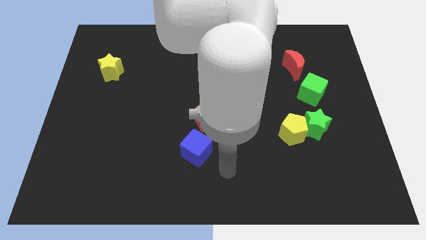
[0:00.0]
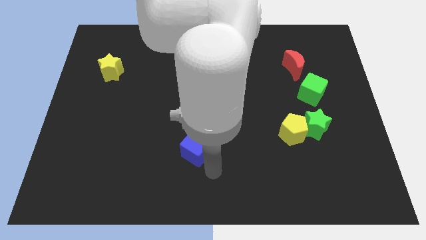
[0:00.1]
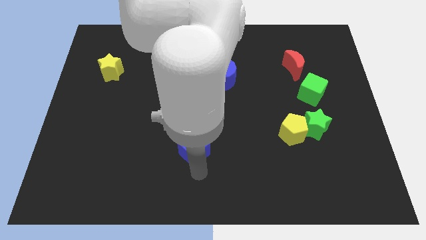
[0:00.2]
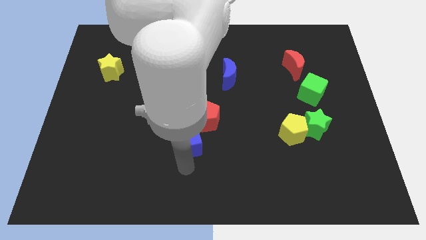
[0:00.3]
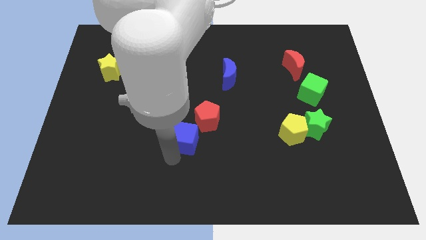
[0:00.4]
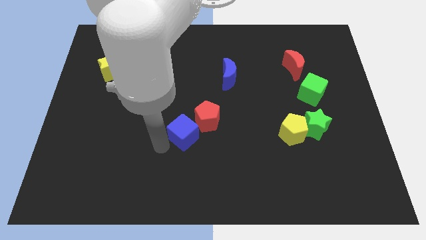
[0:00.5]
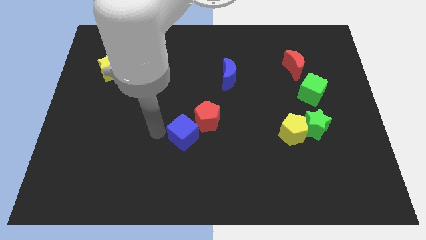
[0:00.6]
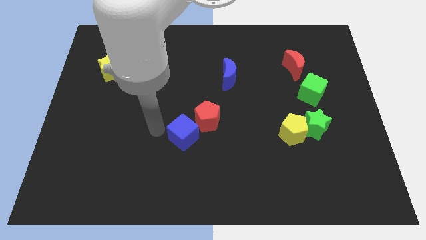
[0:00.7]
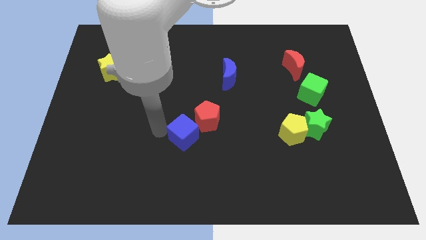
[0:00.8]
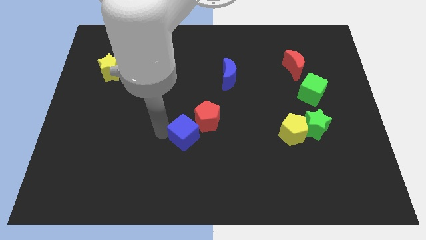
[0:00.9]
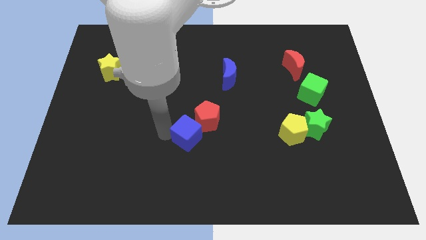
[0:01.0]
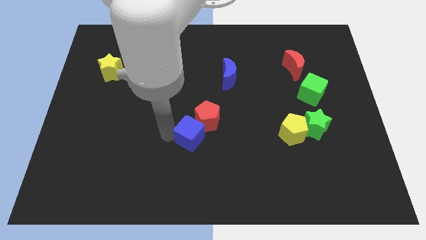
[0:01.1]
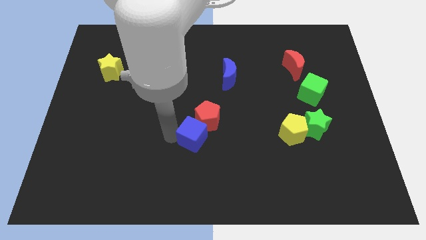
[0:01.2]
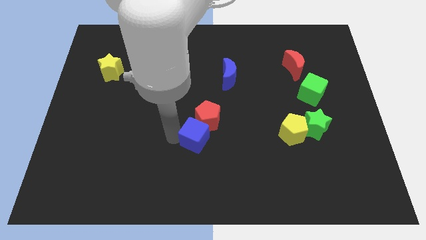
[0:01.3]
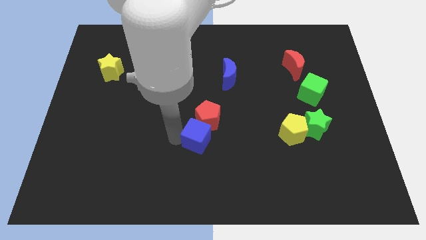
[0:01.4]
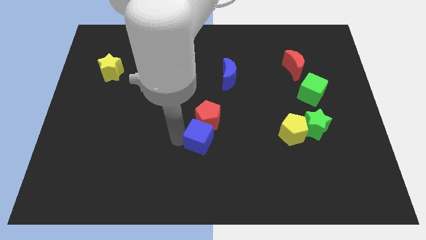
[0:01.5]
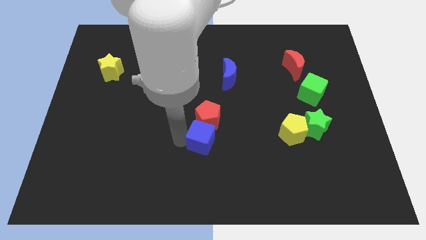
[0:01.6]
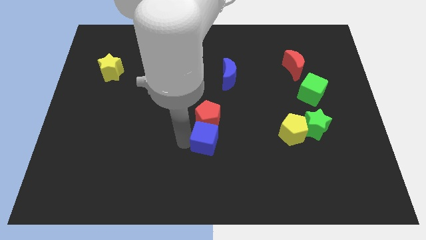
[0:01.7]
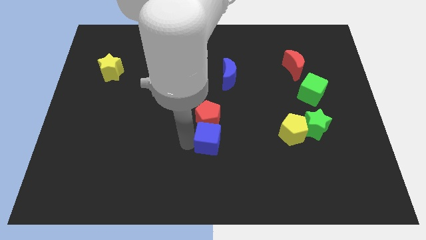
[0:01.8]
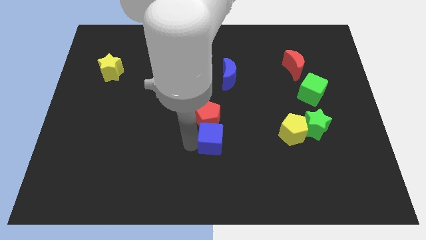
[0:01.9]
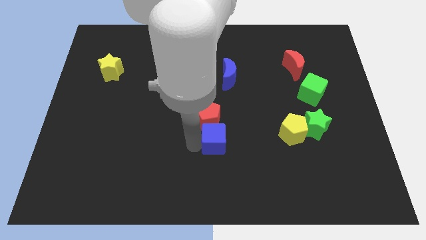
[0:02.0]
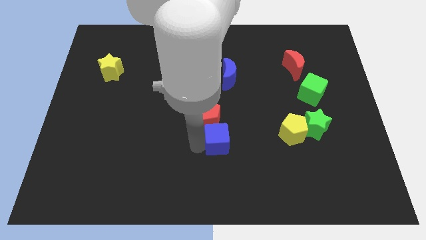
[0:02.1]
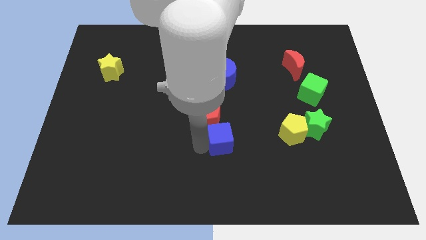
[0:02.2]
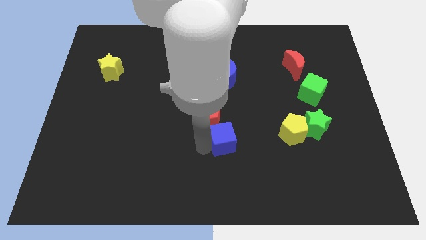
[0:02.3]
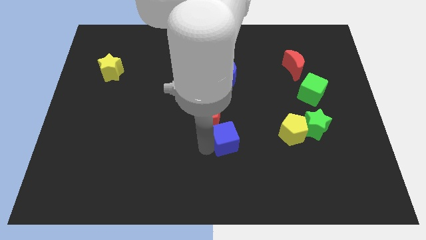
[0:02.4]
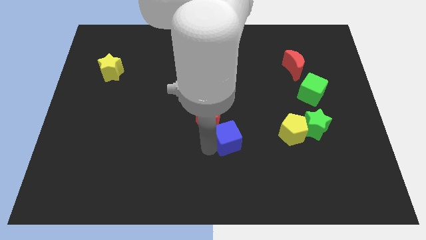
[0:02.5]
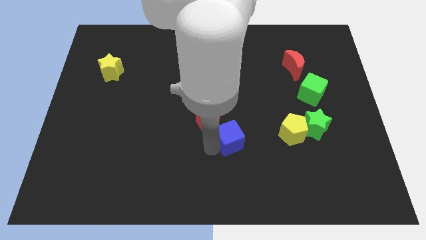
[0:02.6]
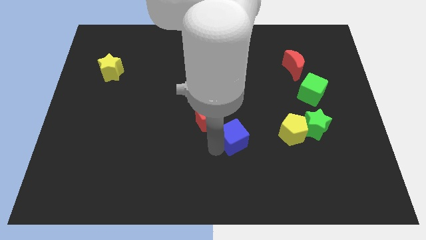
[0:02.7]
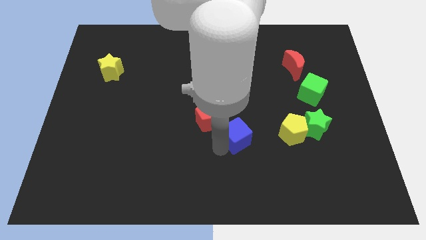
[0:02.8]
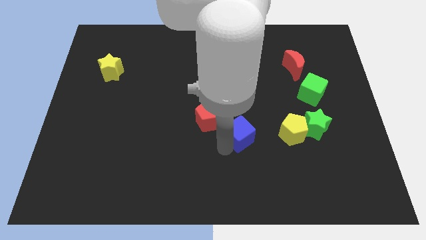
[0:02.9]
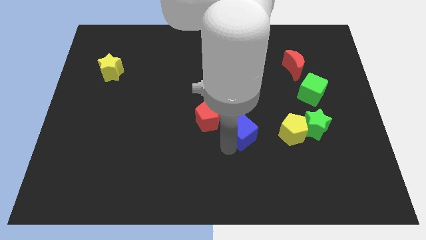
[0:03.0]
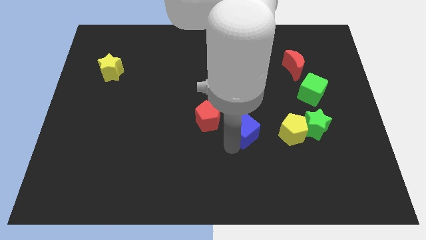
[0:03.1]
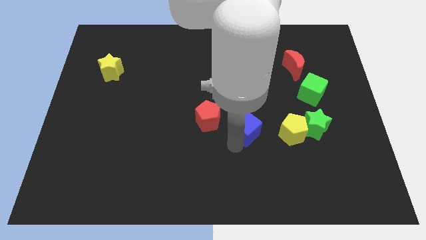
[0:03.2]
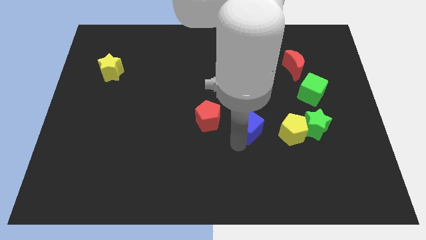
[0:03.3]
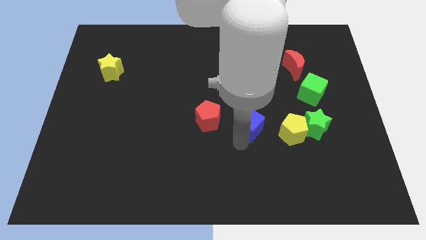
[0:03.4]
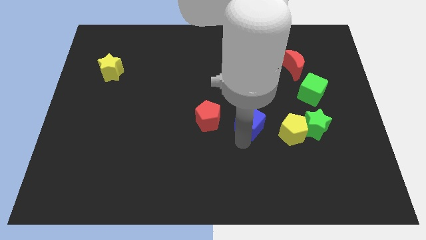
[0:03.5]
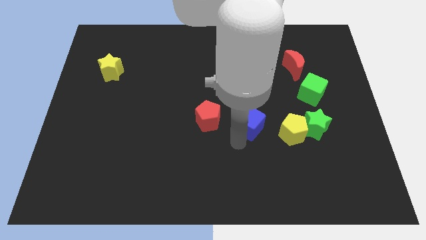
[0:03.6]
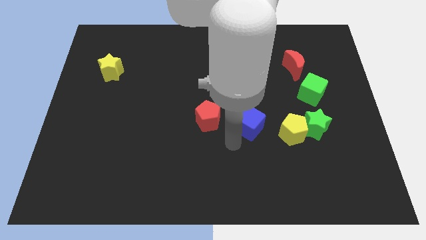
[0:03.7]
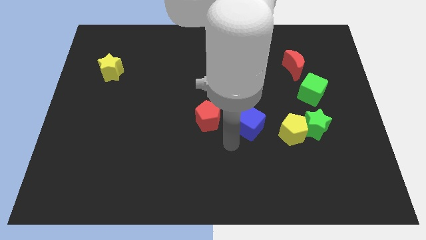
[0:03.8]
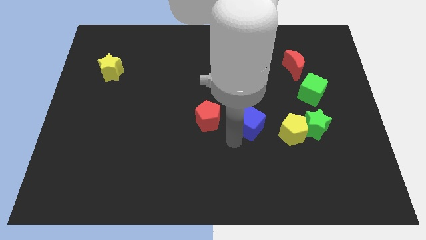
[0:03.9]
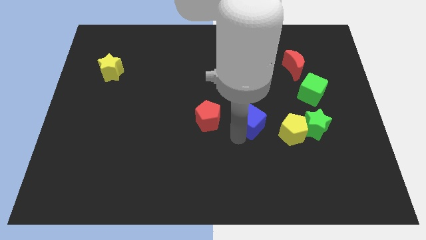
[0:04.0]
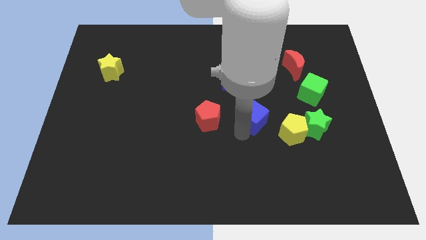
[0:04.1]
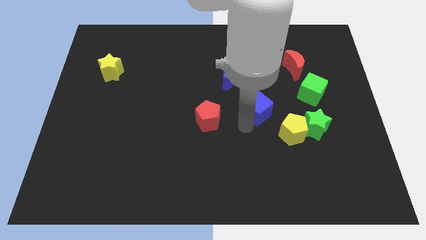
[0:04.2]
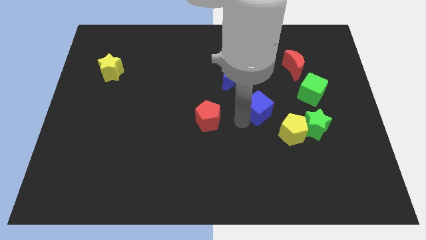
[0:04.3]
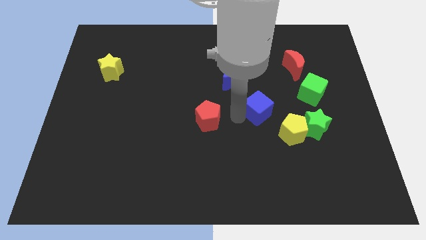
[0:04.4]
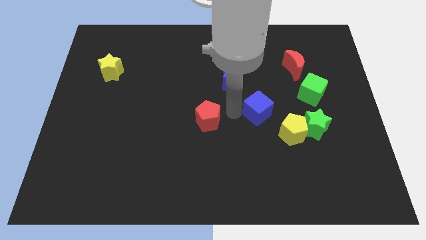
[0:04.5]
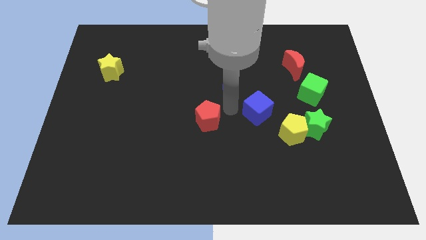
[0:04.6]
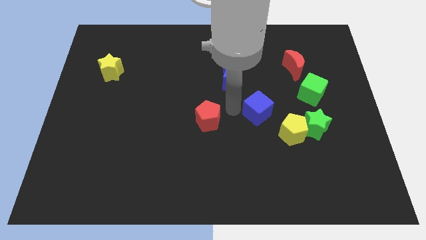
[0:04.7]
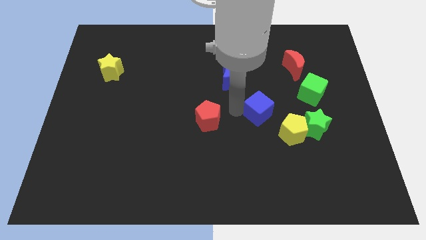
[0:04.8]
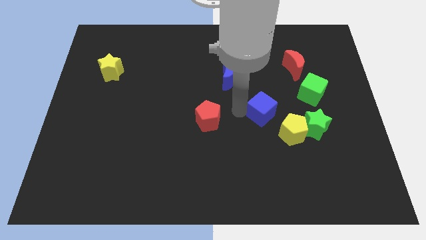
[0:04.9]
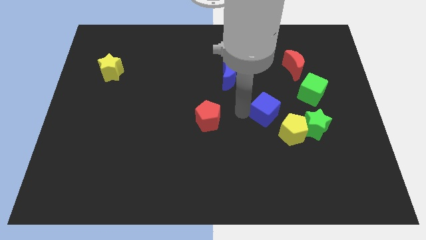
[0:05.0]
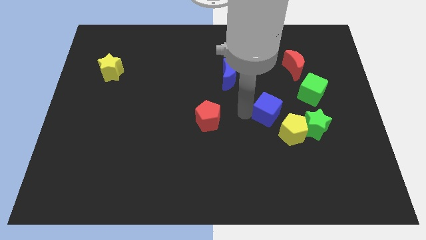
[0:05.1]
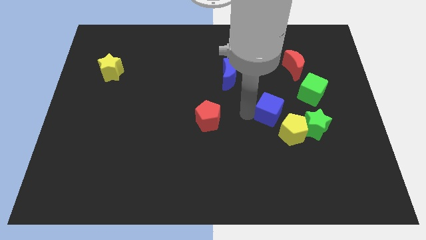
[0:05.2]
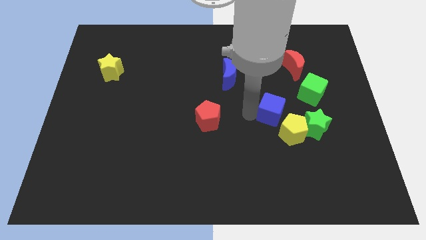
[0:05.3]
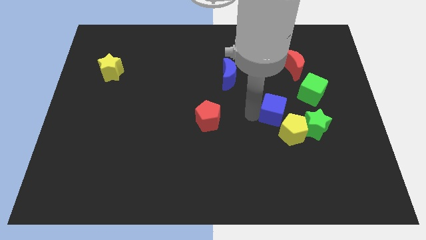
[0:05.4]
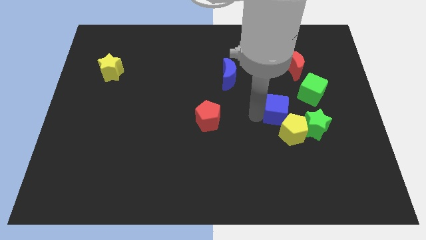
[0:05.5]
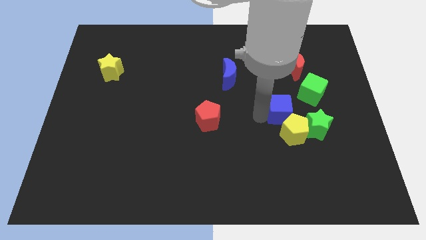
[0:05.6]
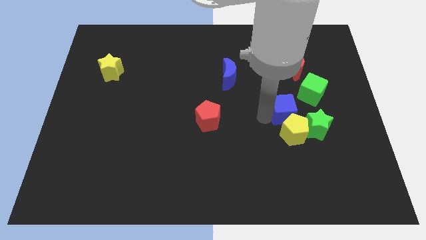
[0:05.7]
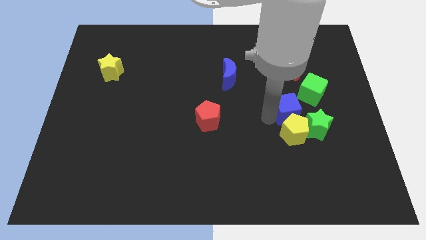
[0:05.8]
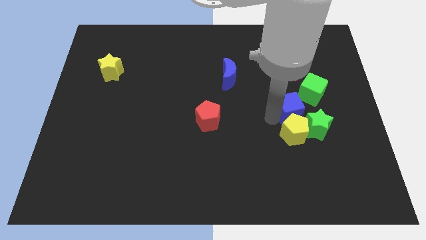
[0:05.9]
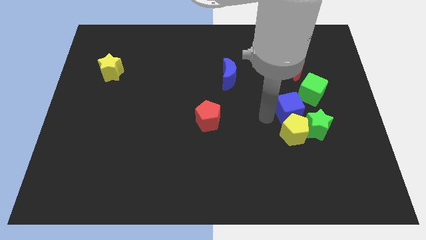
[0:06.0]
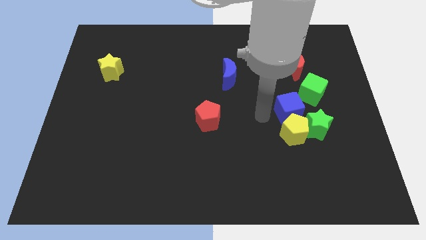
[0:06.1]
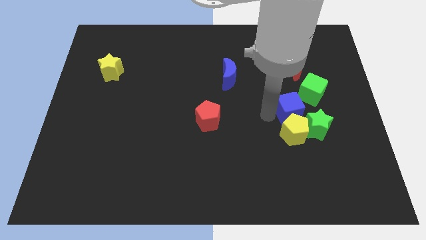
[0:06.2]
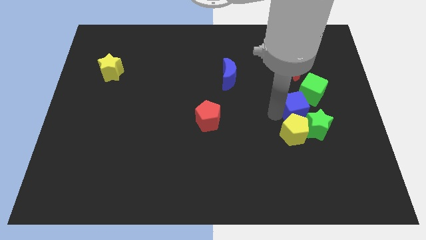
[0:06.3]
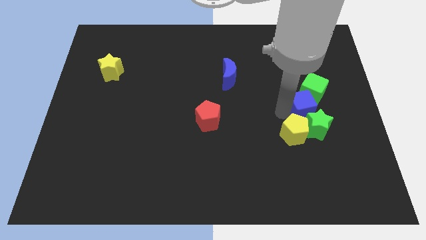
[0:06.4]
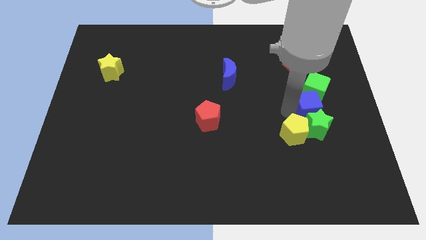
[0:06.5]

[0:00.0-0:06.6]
slide the blue cube diagonally up and to the right of the green star

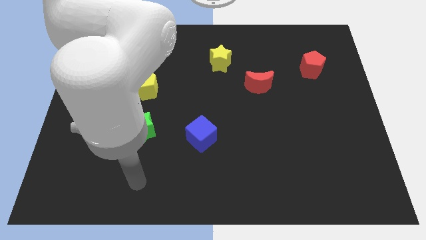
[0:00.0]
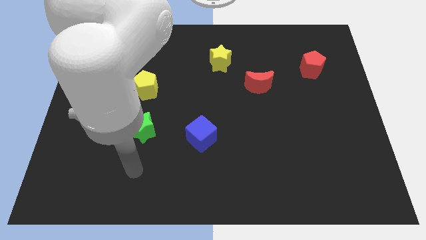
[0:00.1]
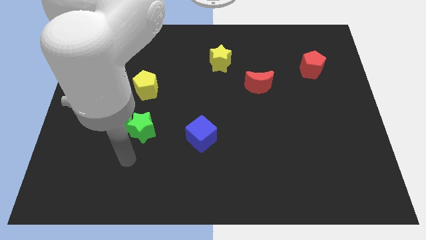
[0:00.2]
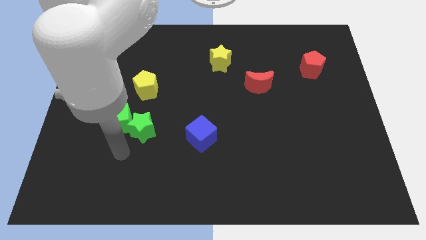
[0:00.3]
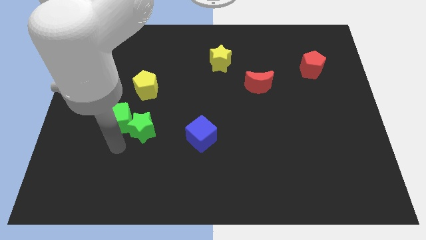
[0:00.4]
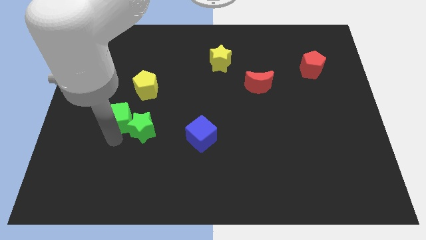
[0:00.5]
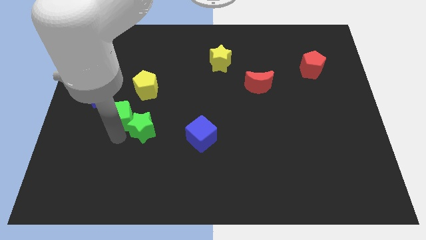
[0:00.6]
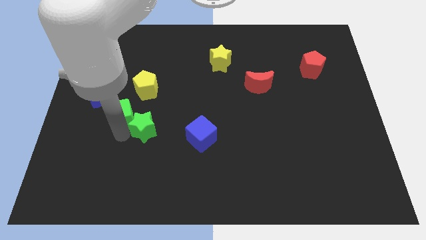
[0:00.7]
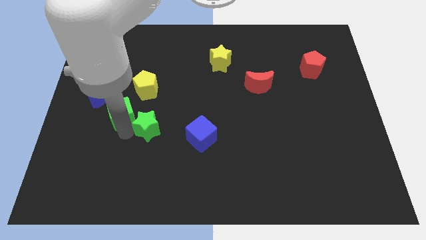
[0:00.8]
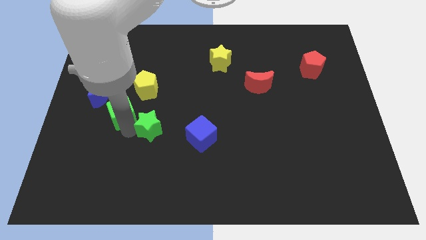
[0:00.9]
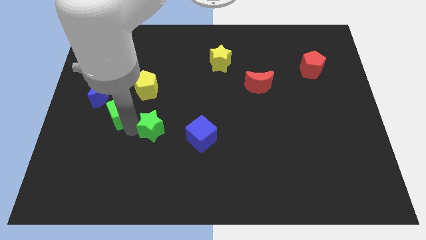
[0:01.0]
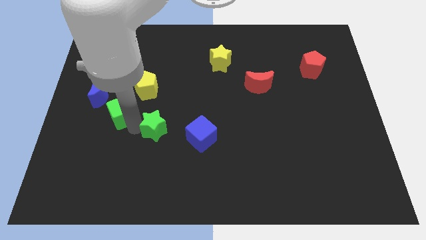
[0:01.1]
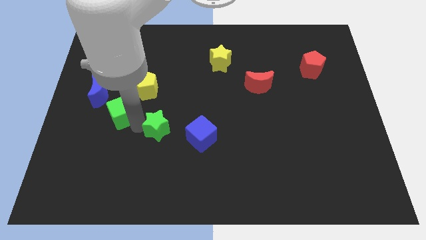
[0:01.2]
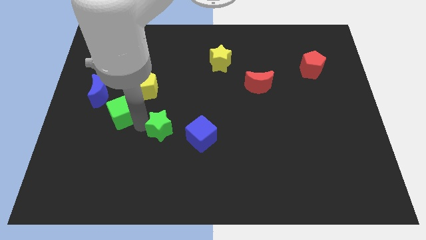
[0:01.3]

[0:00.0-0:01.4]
move the green star to the top left of the blue cube
